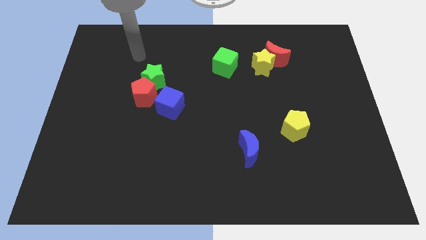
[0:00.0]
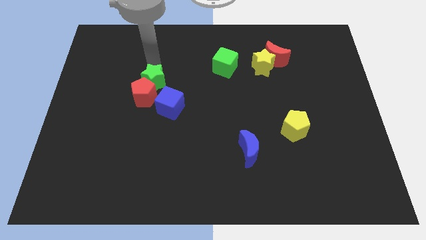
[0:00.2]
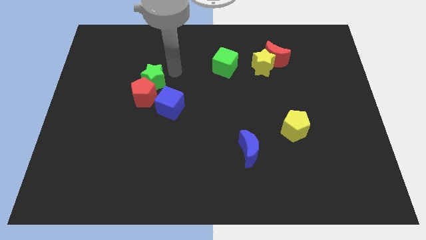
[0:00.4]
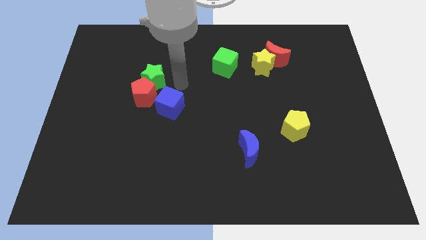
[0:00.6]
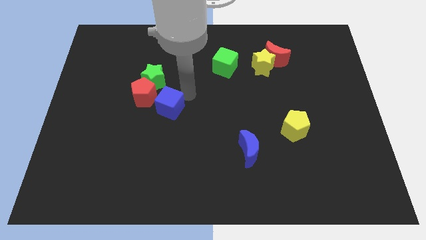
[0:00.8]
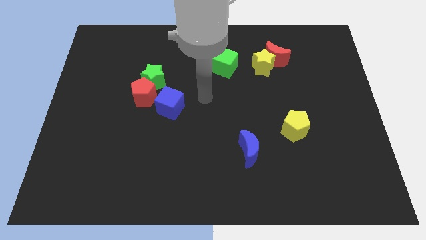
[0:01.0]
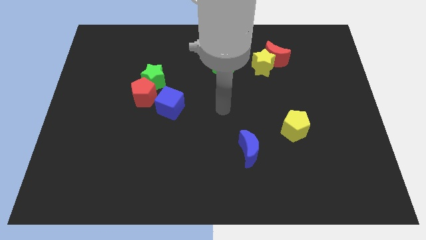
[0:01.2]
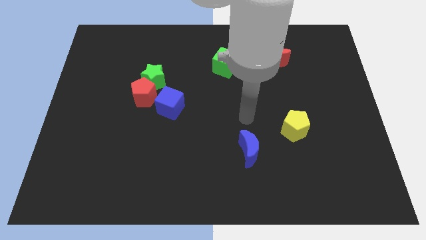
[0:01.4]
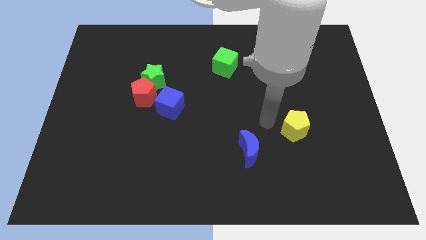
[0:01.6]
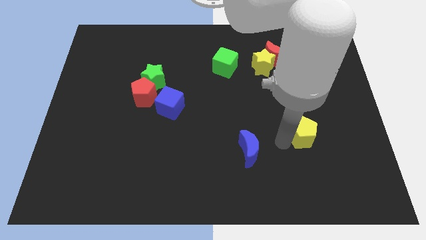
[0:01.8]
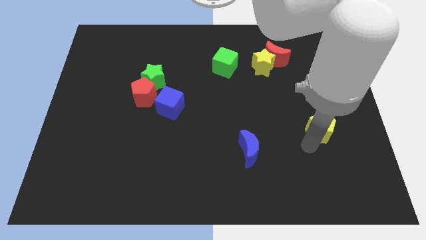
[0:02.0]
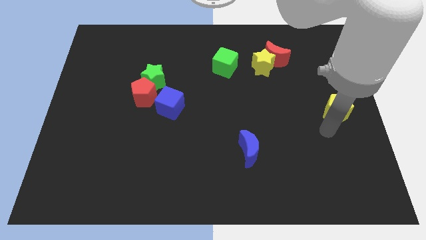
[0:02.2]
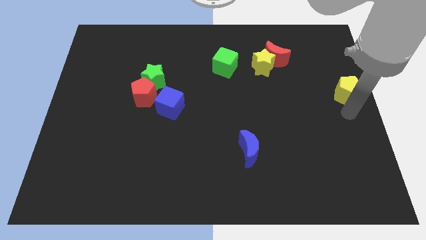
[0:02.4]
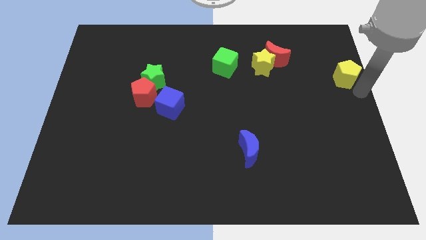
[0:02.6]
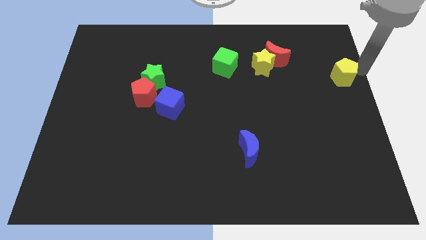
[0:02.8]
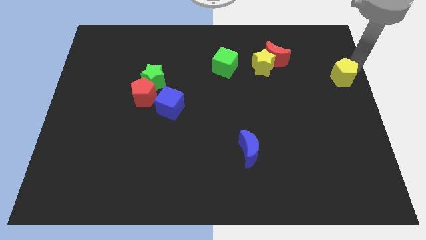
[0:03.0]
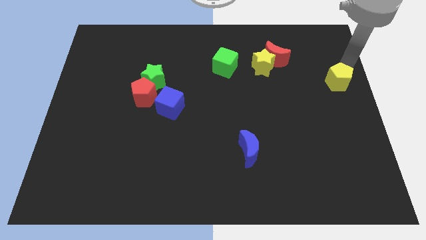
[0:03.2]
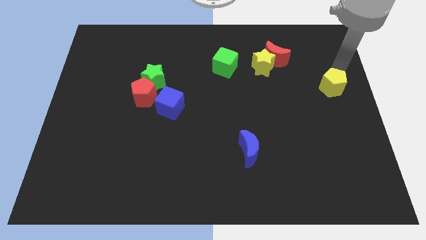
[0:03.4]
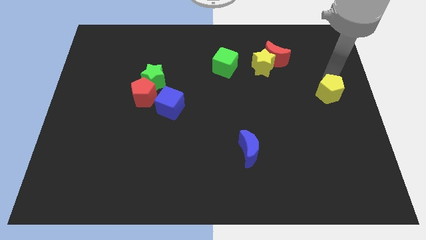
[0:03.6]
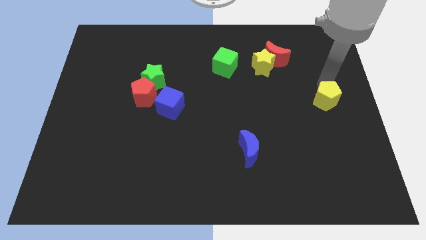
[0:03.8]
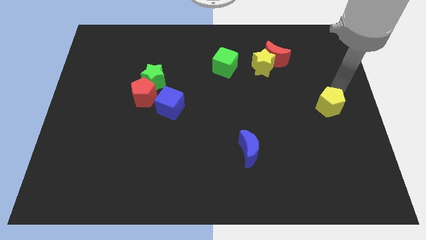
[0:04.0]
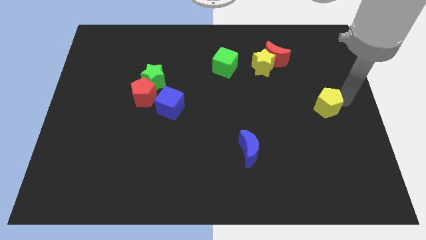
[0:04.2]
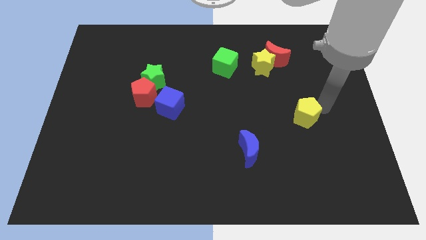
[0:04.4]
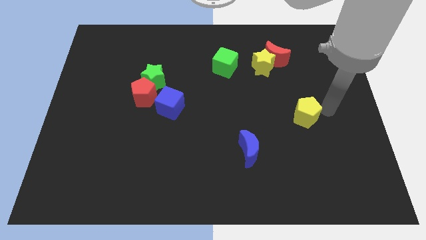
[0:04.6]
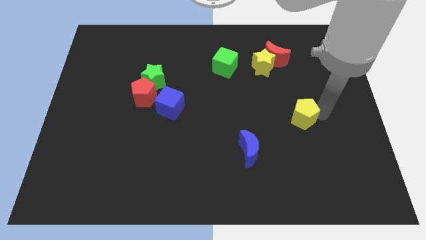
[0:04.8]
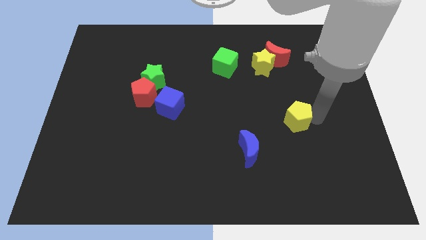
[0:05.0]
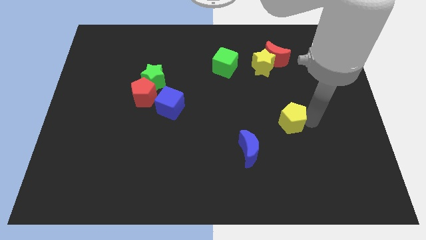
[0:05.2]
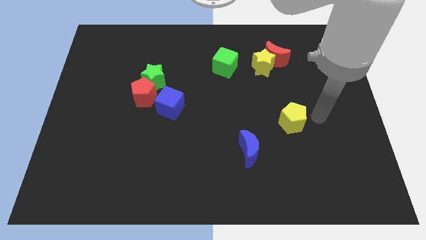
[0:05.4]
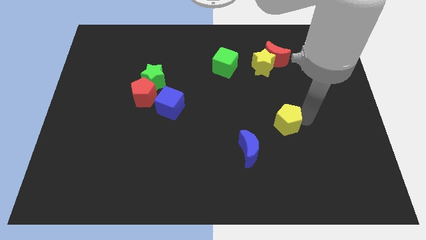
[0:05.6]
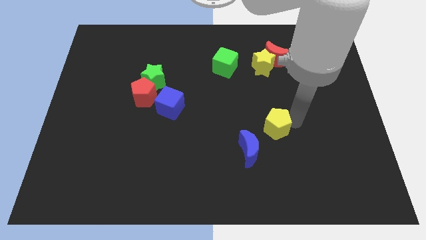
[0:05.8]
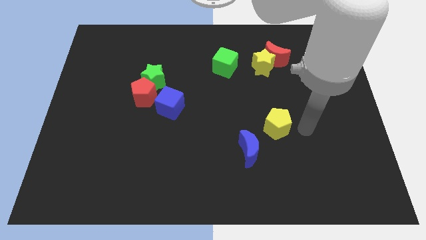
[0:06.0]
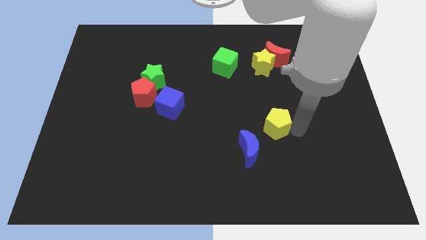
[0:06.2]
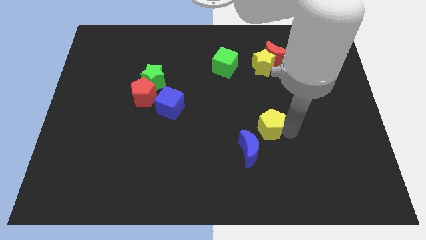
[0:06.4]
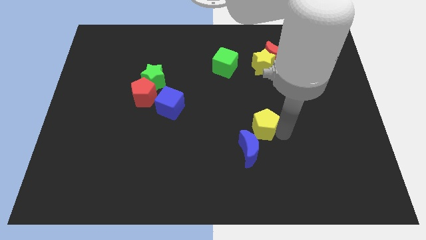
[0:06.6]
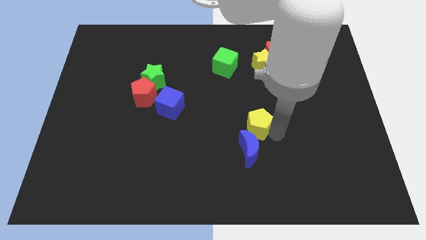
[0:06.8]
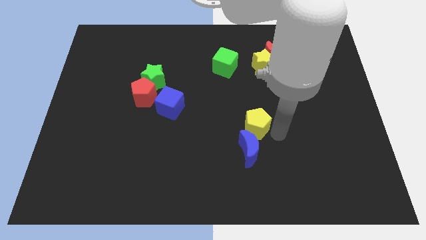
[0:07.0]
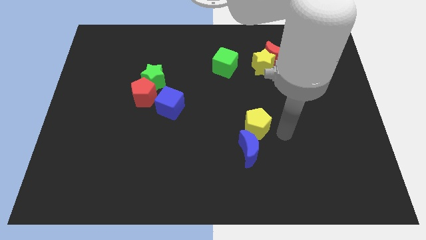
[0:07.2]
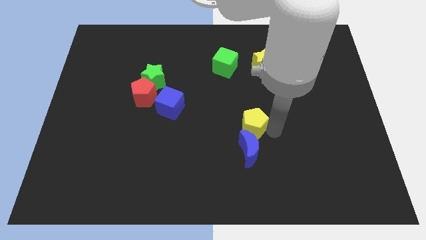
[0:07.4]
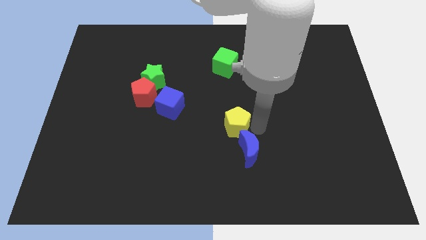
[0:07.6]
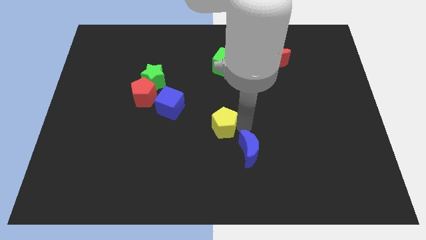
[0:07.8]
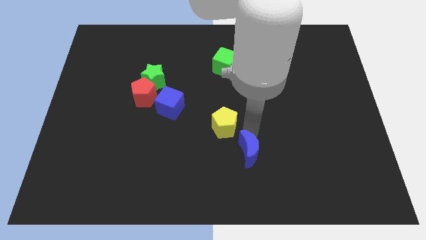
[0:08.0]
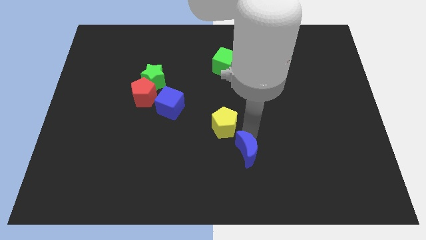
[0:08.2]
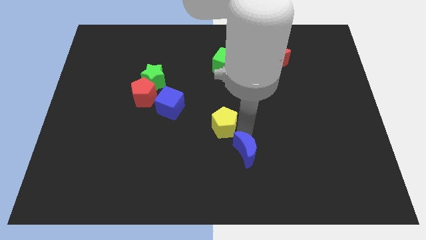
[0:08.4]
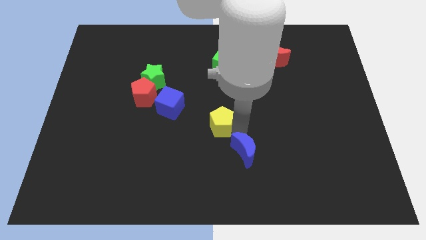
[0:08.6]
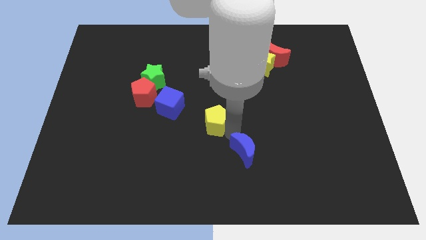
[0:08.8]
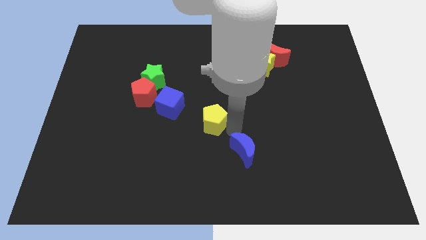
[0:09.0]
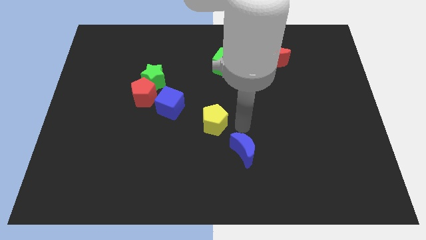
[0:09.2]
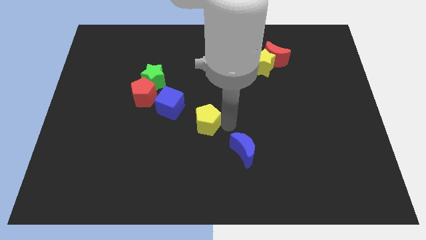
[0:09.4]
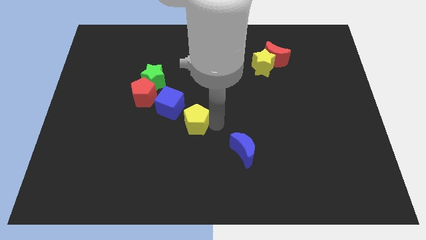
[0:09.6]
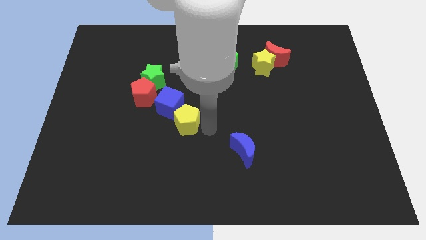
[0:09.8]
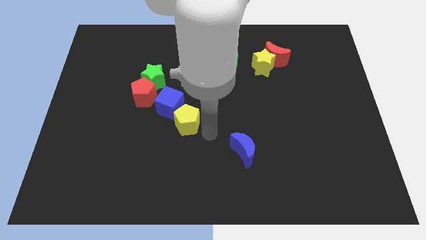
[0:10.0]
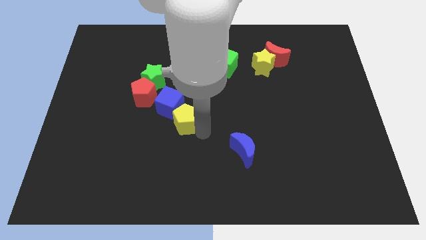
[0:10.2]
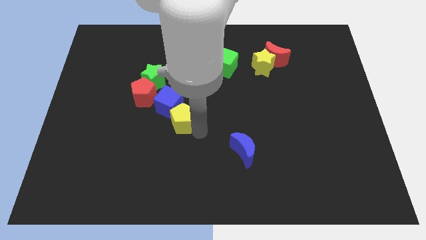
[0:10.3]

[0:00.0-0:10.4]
move the yellow pentagon to the bottom right side of the red pentagon

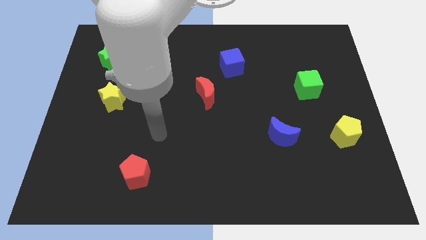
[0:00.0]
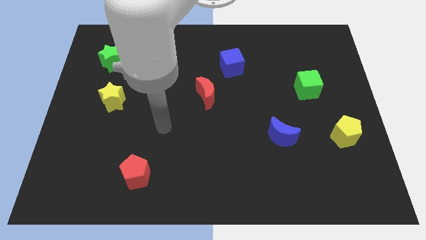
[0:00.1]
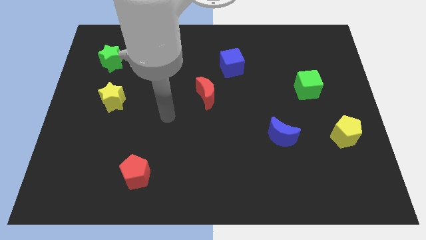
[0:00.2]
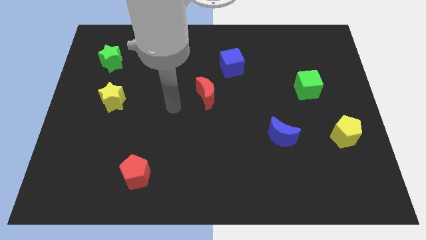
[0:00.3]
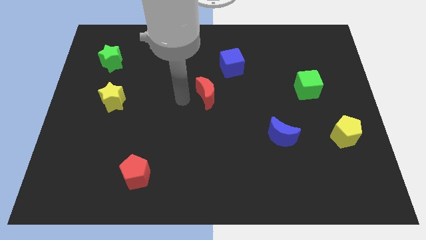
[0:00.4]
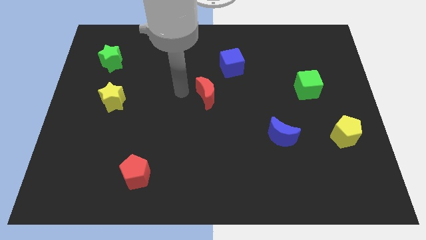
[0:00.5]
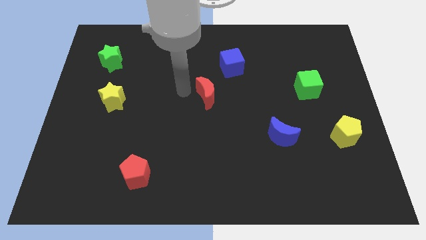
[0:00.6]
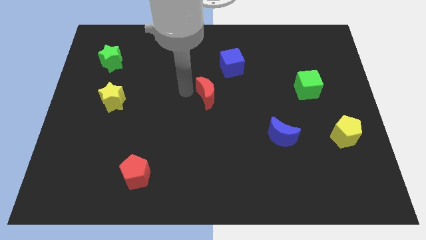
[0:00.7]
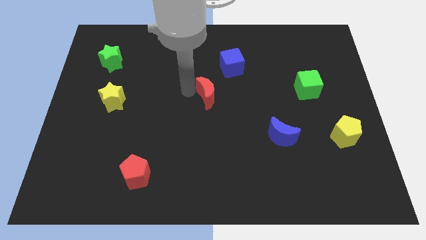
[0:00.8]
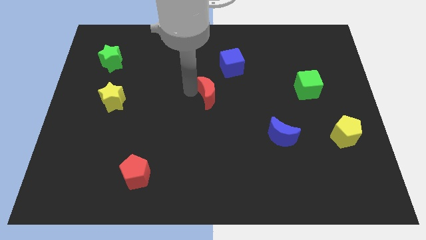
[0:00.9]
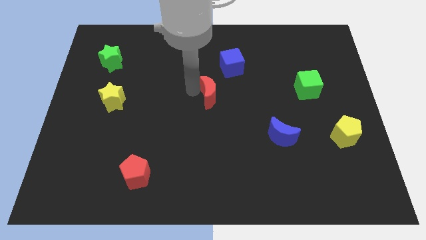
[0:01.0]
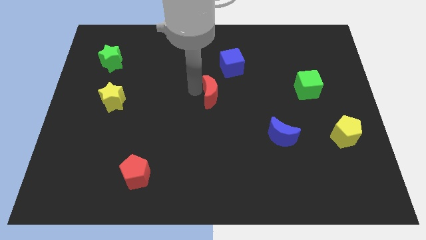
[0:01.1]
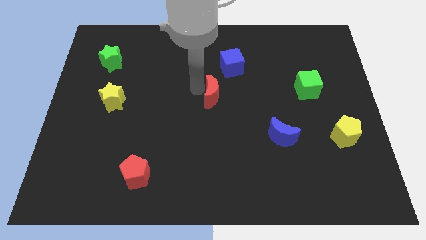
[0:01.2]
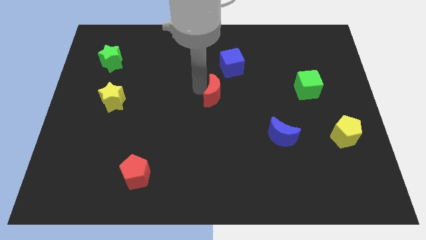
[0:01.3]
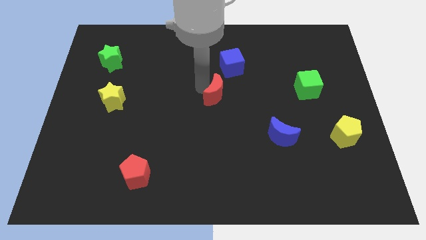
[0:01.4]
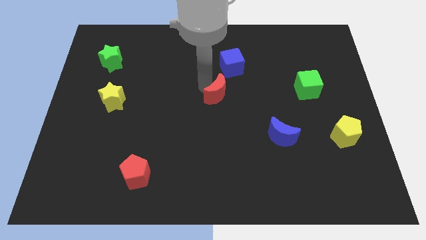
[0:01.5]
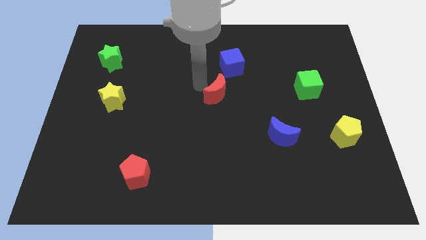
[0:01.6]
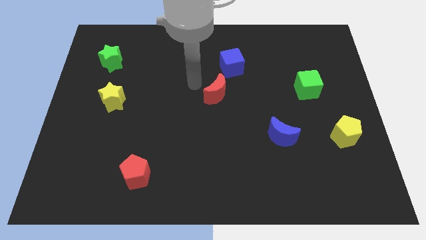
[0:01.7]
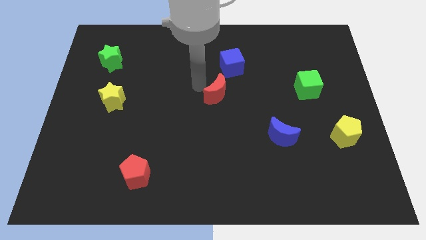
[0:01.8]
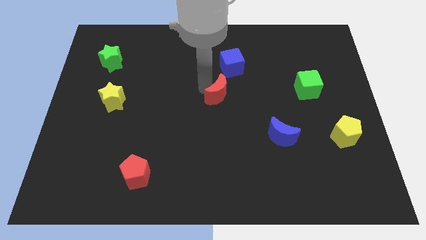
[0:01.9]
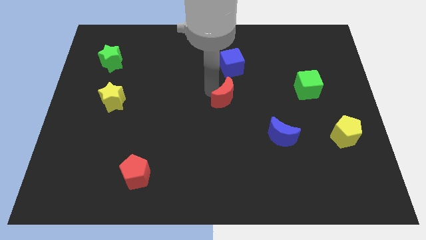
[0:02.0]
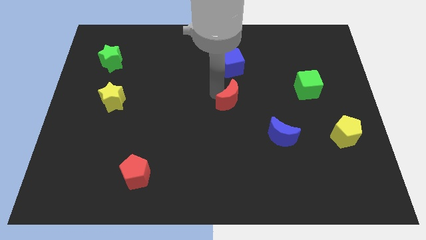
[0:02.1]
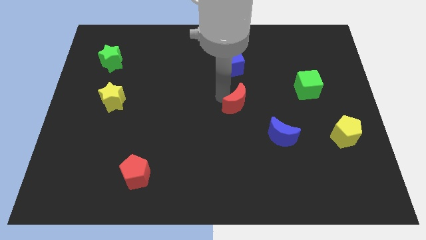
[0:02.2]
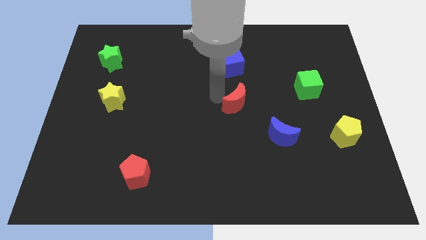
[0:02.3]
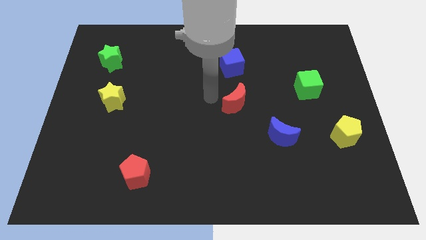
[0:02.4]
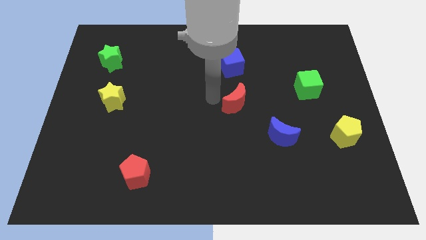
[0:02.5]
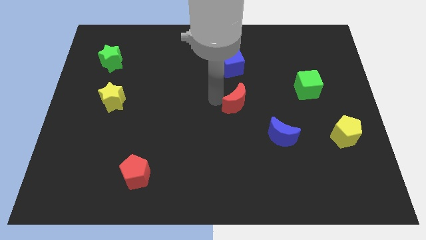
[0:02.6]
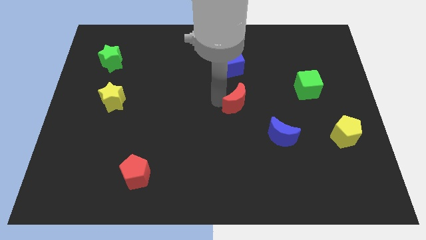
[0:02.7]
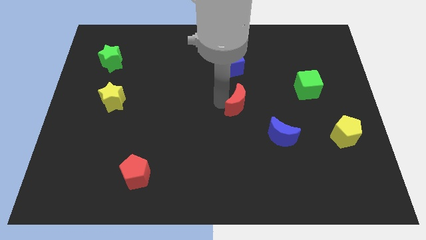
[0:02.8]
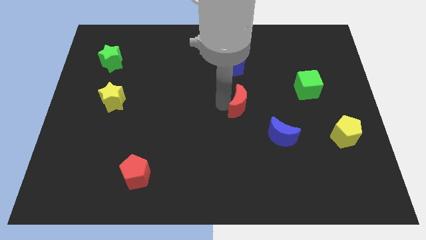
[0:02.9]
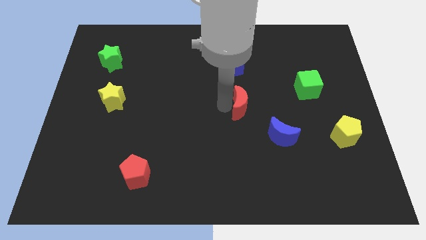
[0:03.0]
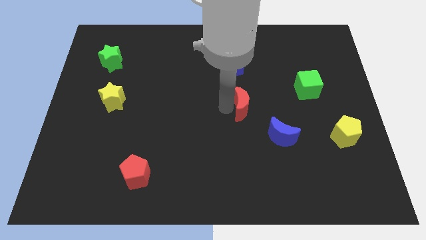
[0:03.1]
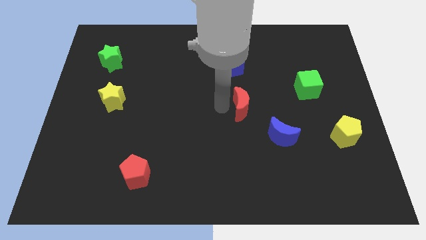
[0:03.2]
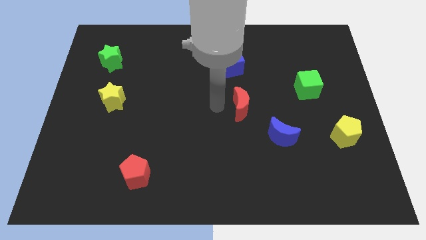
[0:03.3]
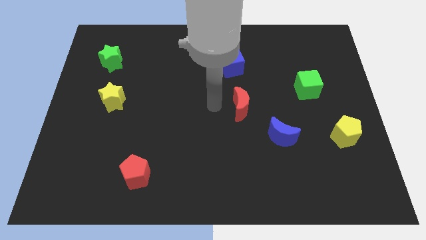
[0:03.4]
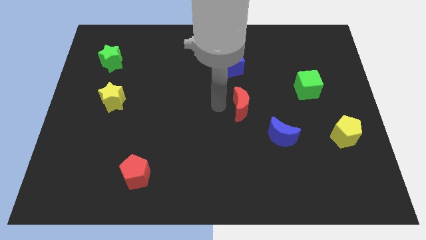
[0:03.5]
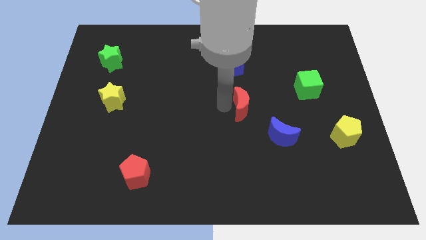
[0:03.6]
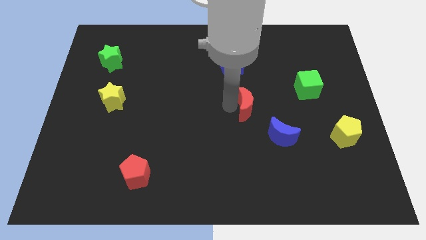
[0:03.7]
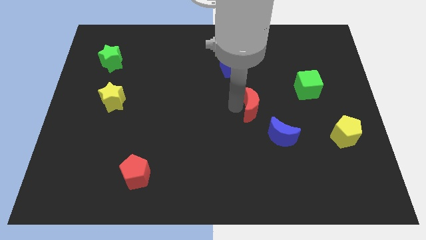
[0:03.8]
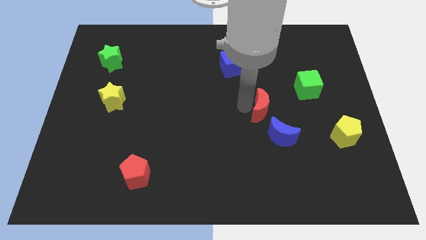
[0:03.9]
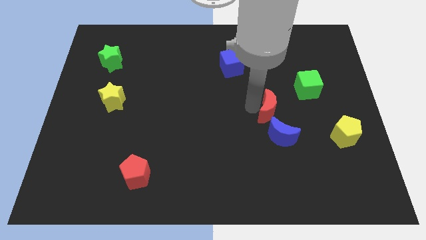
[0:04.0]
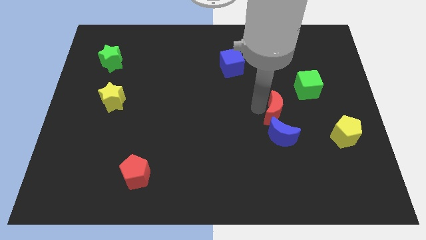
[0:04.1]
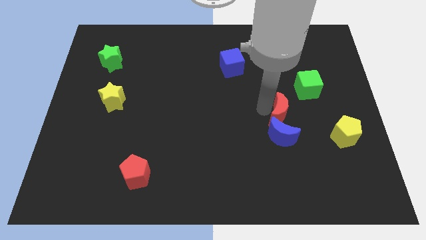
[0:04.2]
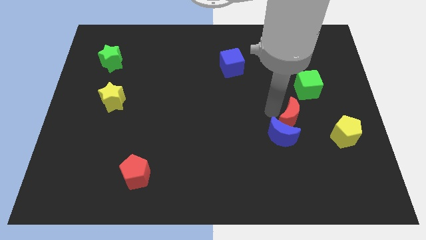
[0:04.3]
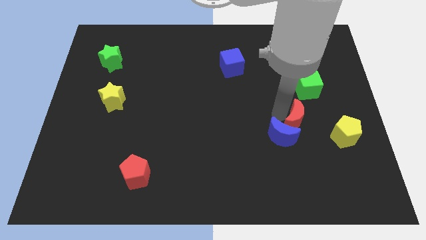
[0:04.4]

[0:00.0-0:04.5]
push the red moon to the bottom of the green cube
